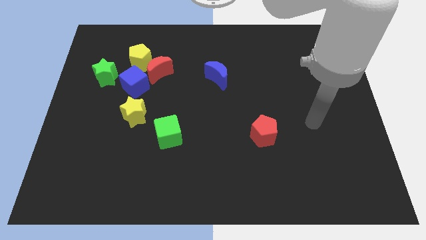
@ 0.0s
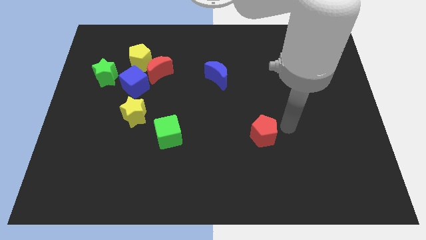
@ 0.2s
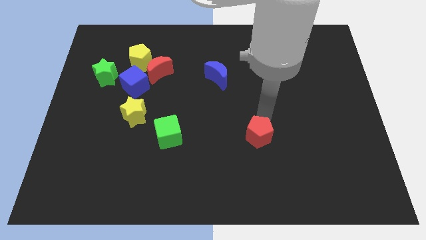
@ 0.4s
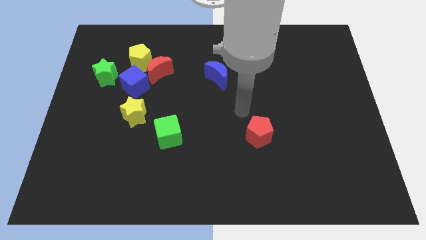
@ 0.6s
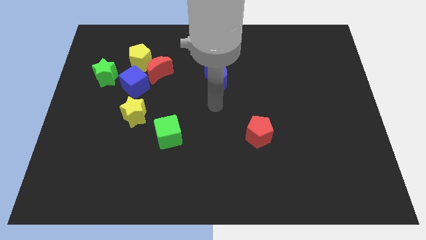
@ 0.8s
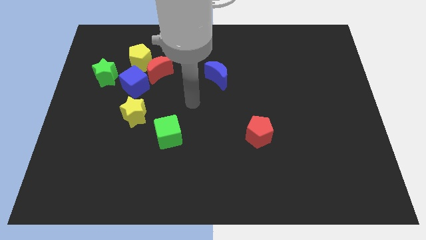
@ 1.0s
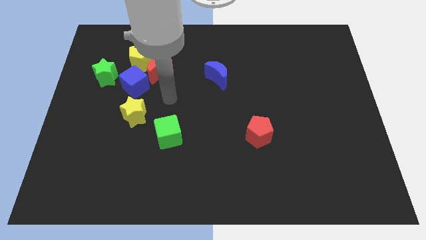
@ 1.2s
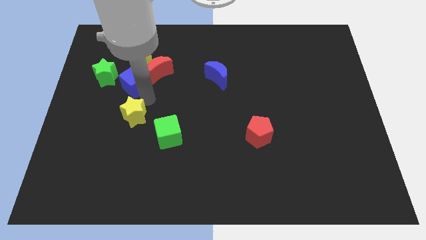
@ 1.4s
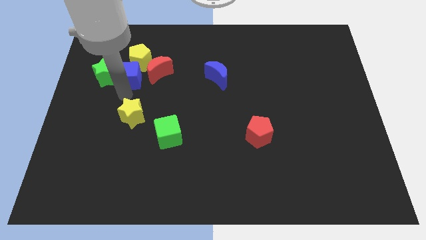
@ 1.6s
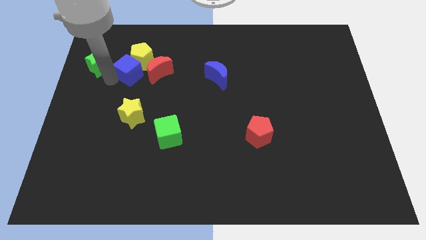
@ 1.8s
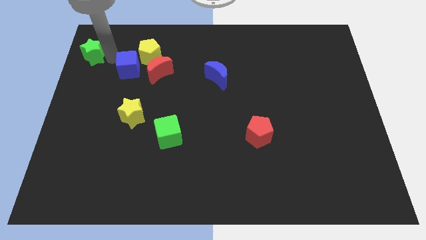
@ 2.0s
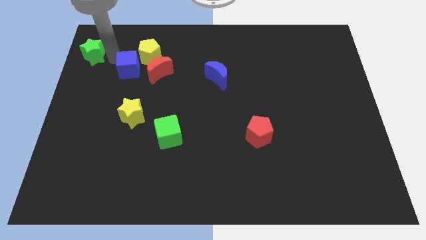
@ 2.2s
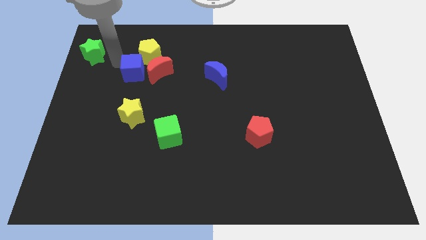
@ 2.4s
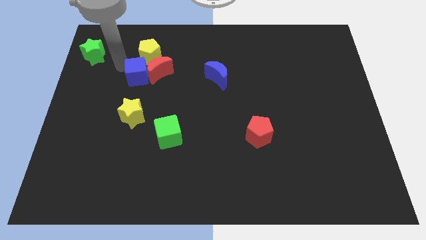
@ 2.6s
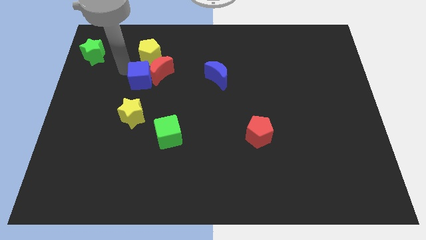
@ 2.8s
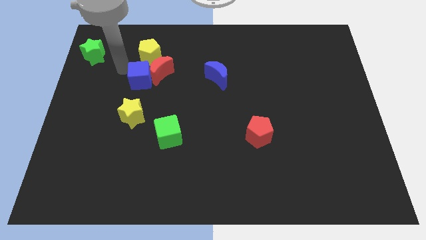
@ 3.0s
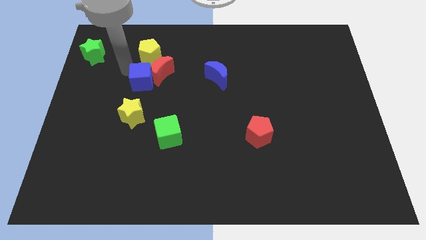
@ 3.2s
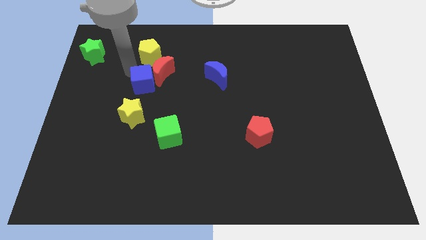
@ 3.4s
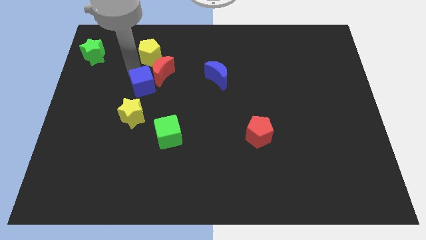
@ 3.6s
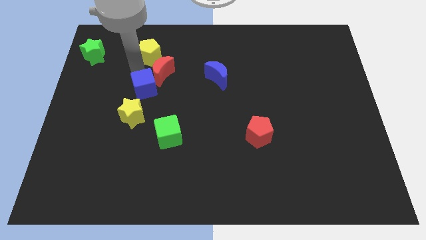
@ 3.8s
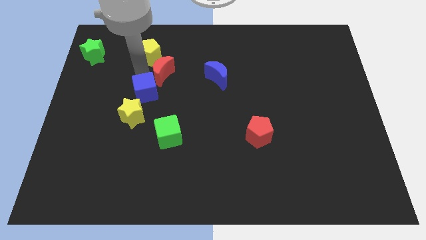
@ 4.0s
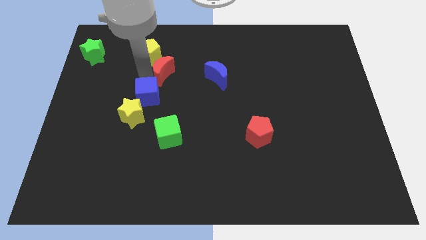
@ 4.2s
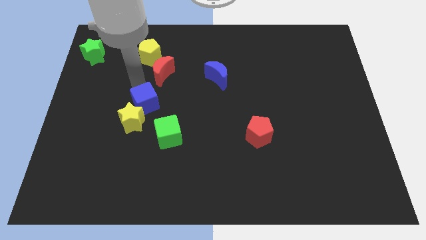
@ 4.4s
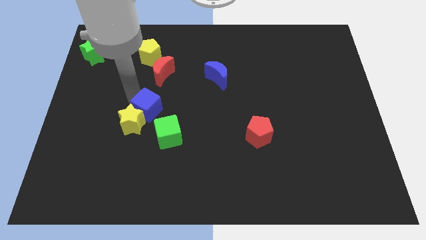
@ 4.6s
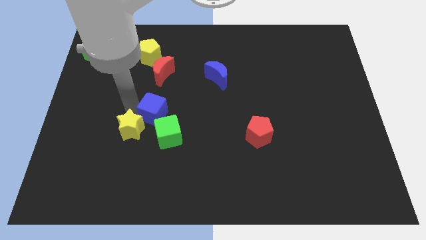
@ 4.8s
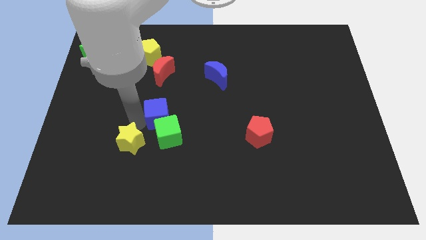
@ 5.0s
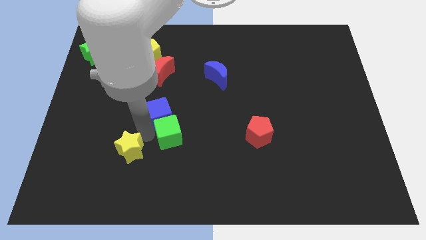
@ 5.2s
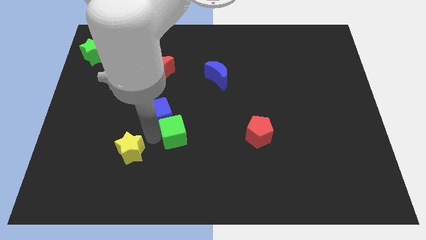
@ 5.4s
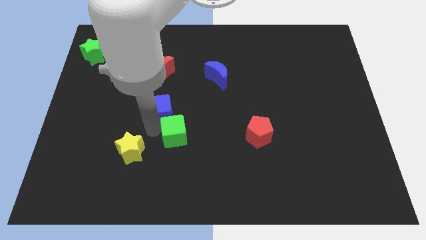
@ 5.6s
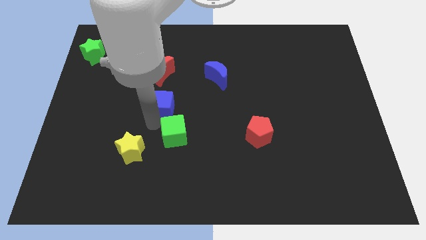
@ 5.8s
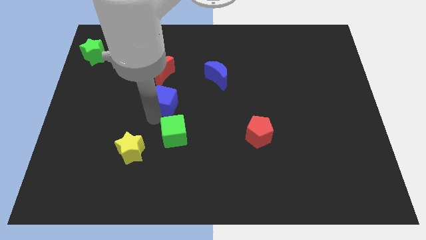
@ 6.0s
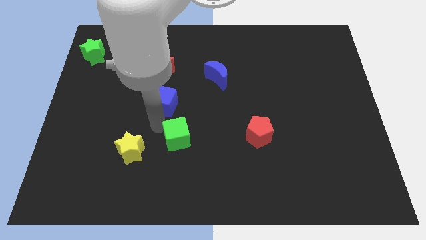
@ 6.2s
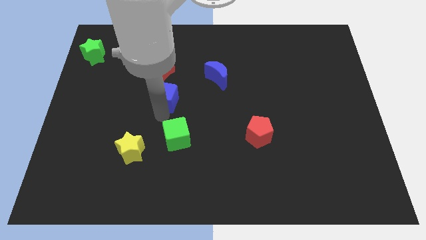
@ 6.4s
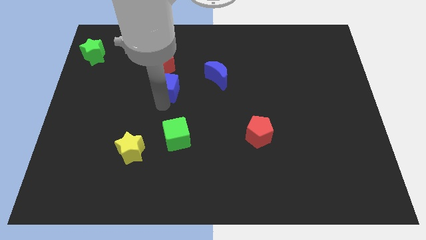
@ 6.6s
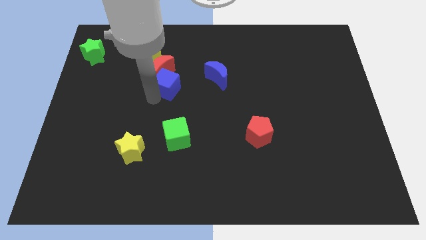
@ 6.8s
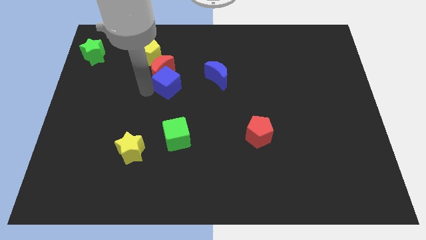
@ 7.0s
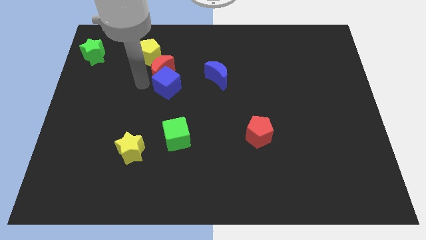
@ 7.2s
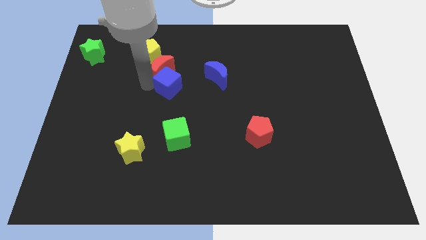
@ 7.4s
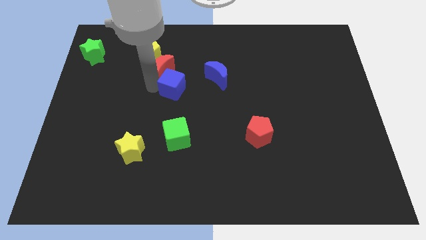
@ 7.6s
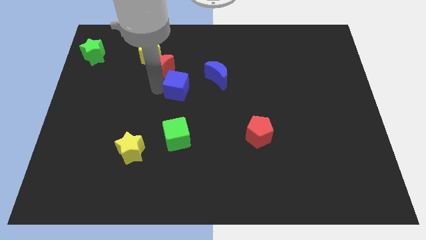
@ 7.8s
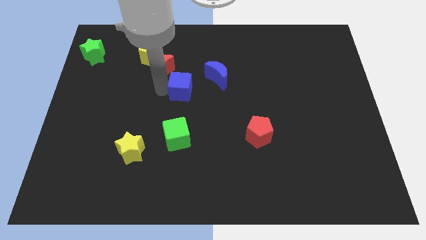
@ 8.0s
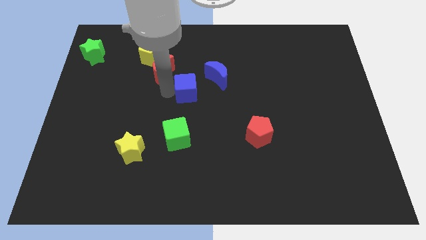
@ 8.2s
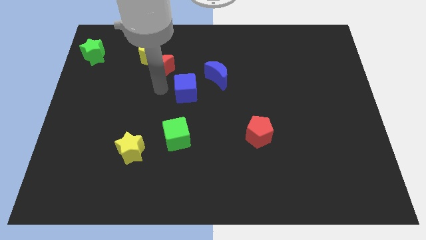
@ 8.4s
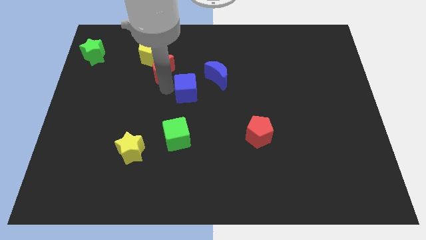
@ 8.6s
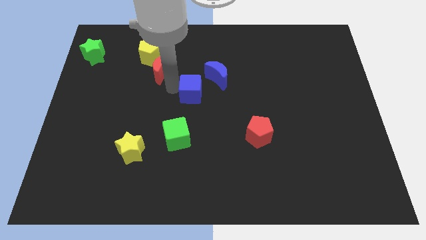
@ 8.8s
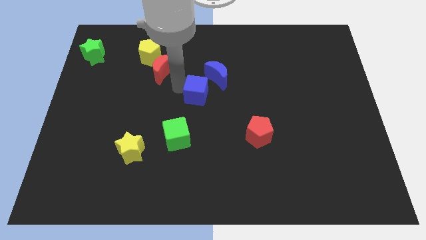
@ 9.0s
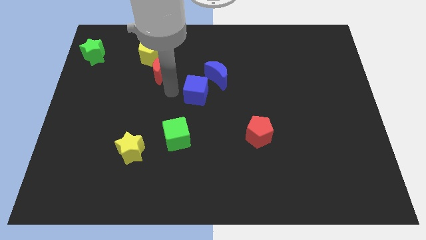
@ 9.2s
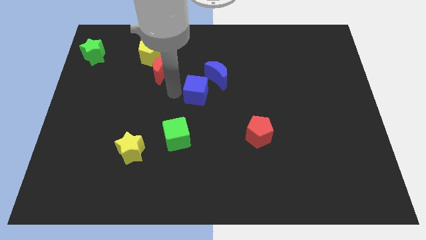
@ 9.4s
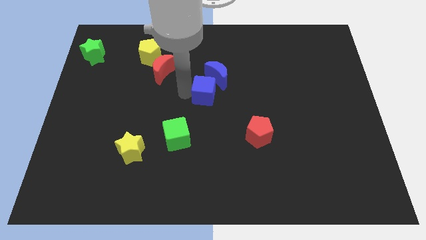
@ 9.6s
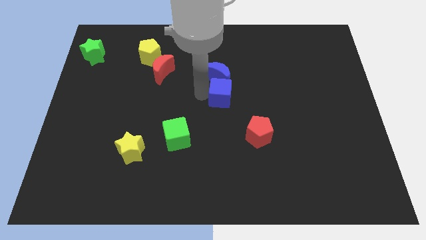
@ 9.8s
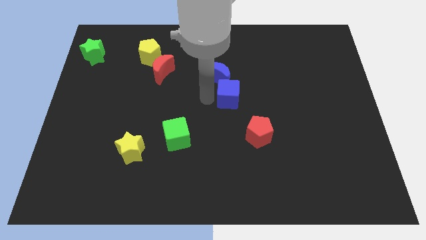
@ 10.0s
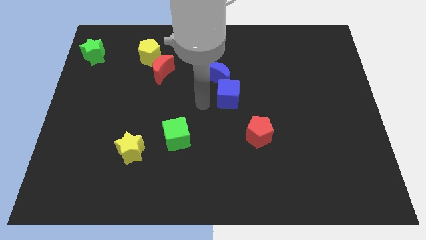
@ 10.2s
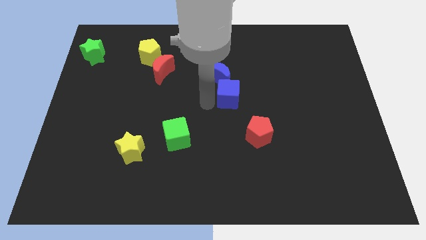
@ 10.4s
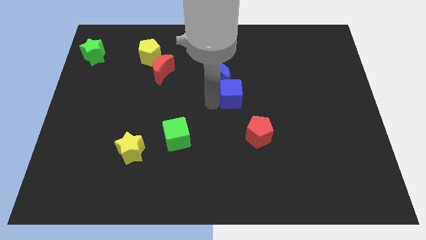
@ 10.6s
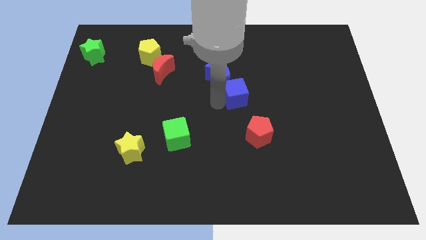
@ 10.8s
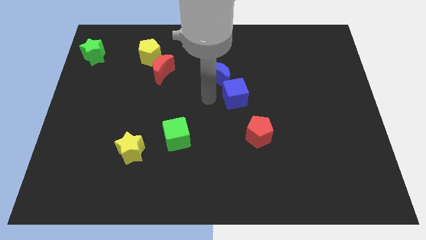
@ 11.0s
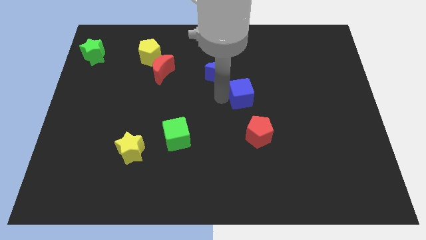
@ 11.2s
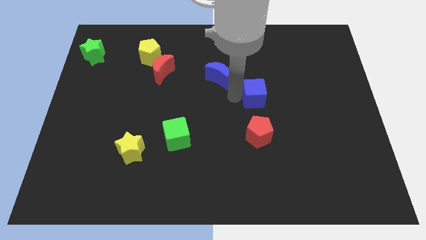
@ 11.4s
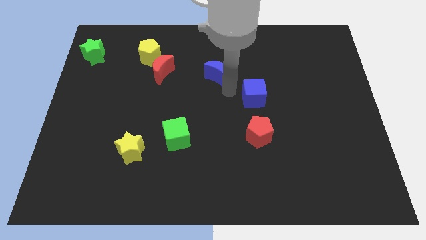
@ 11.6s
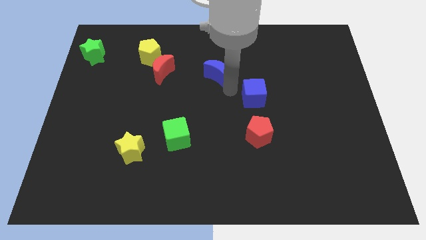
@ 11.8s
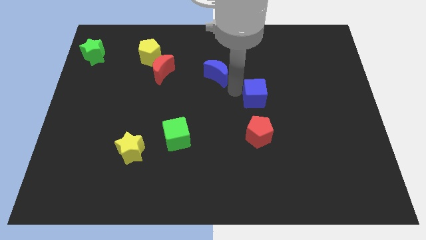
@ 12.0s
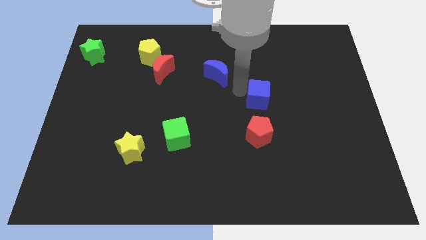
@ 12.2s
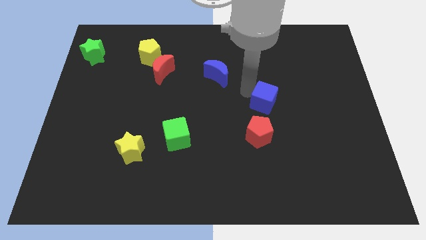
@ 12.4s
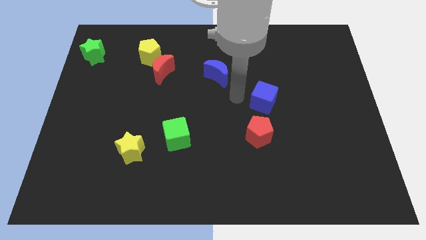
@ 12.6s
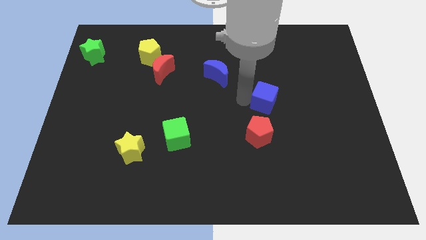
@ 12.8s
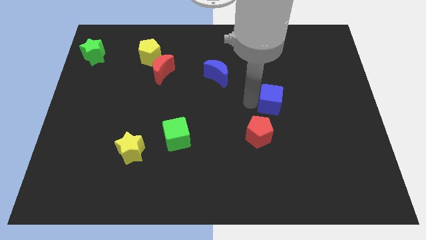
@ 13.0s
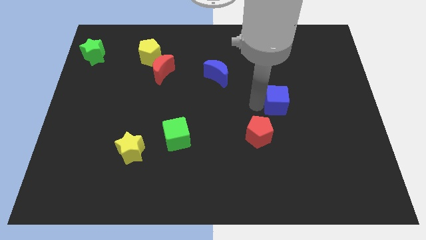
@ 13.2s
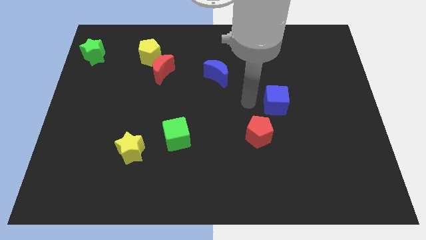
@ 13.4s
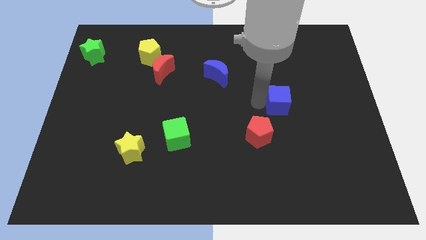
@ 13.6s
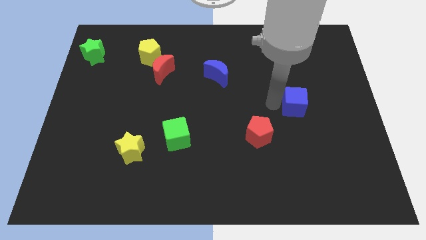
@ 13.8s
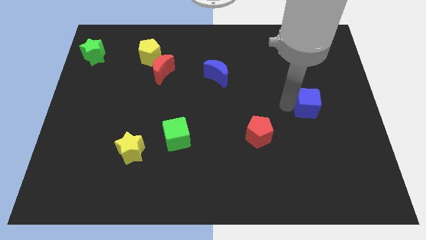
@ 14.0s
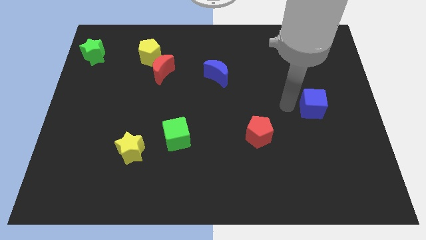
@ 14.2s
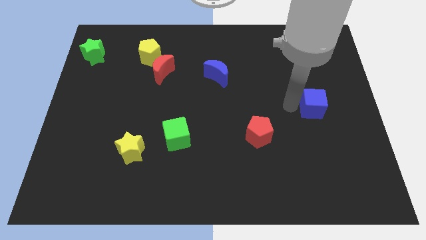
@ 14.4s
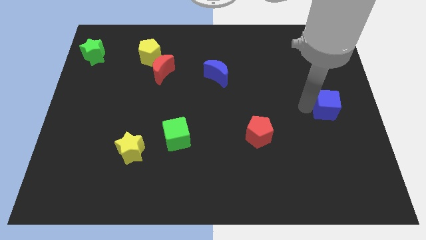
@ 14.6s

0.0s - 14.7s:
push the blue cube to the right side of the board
